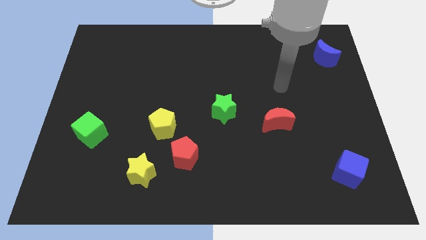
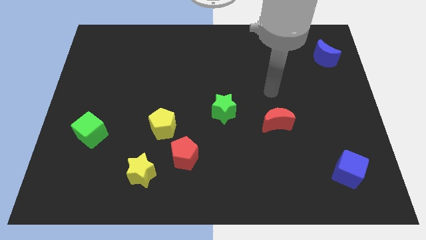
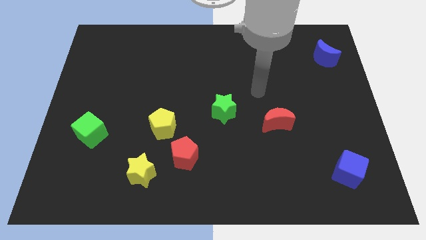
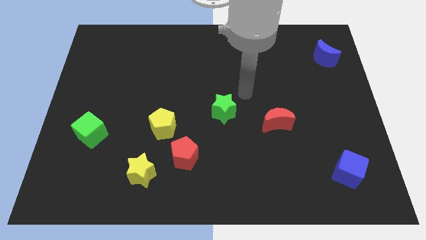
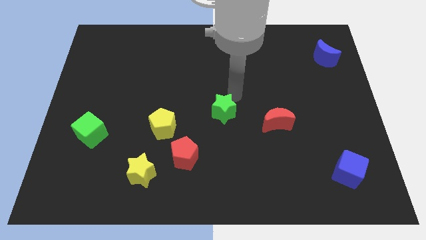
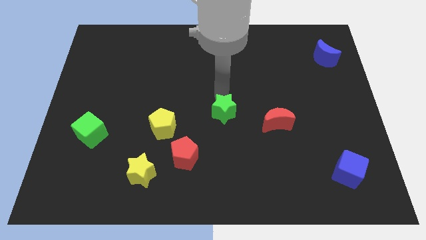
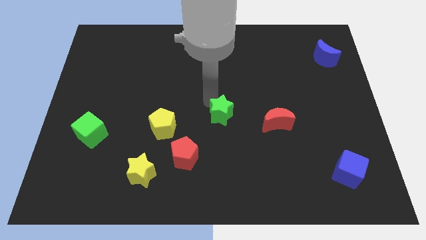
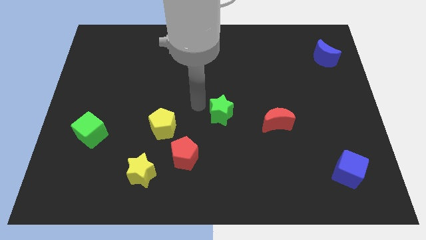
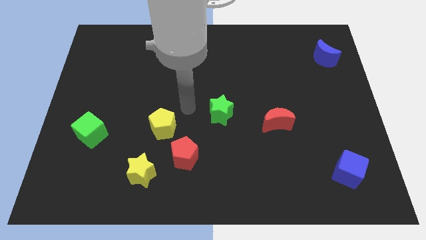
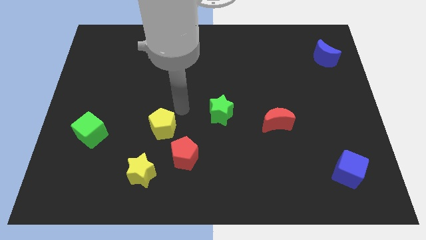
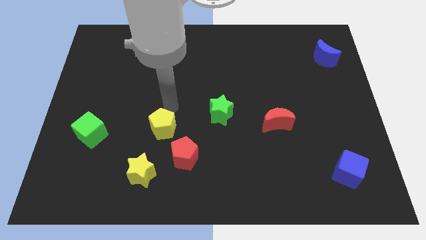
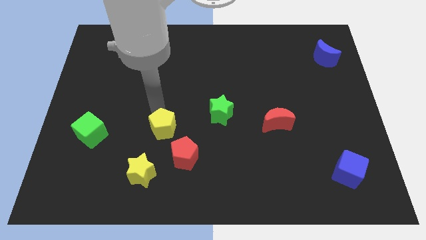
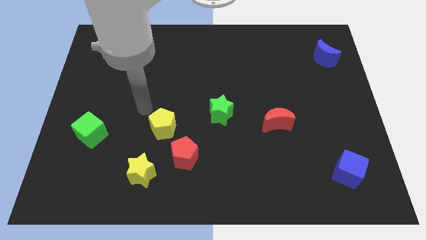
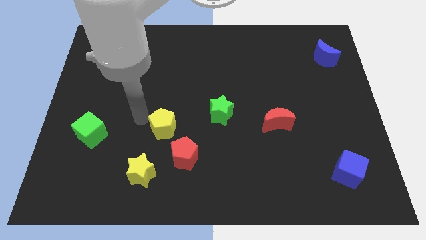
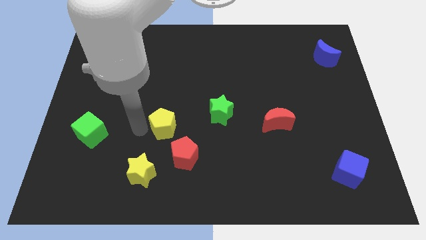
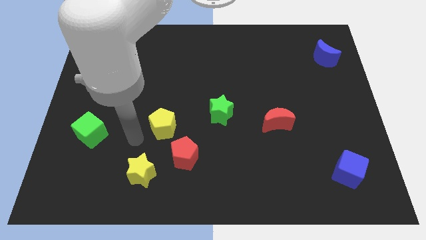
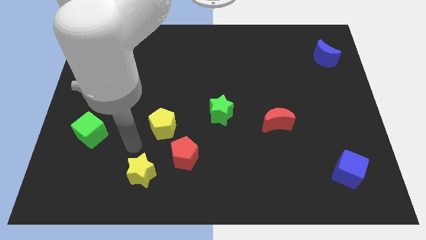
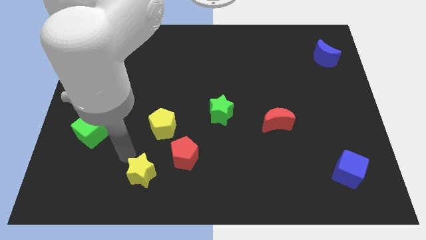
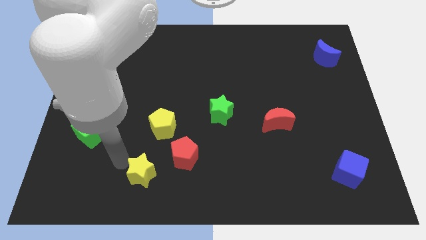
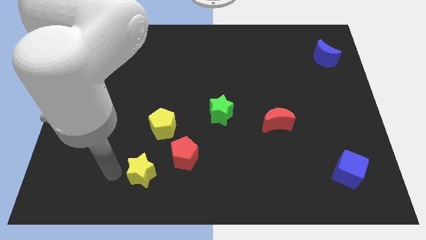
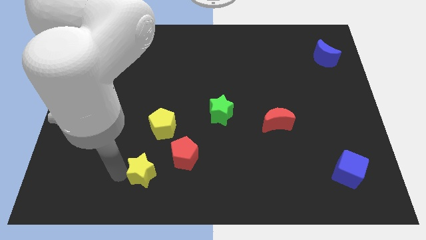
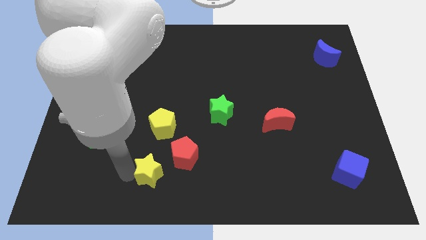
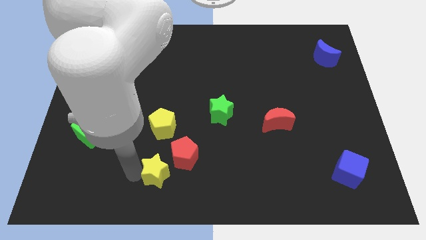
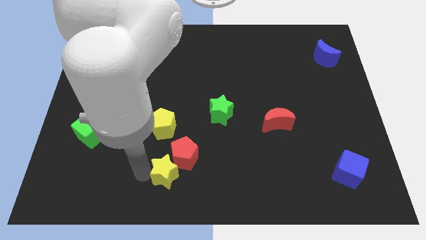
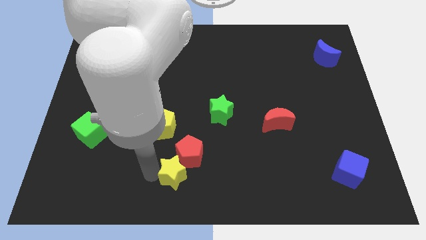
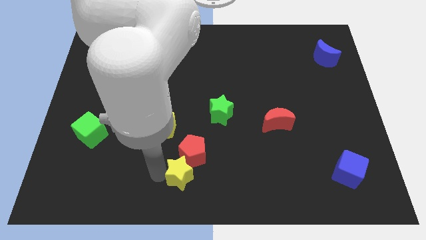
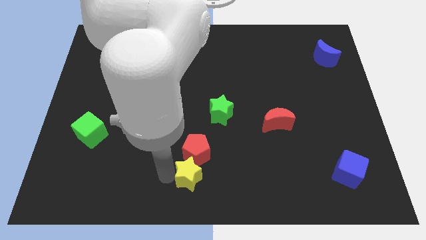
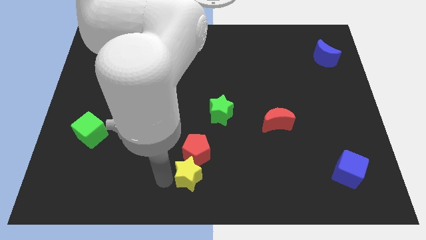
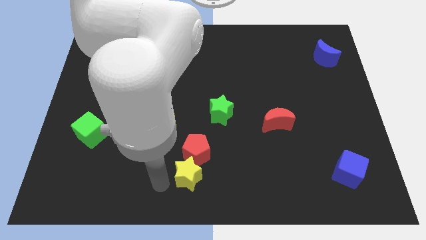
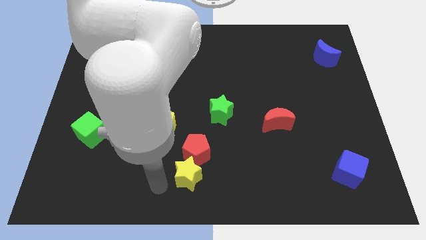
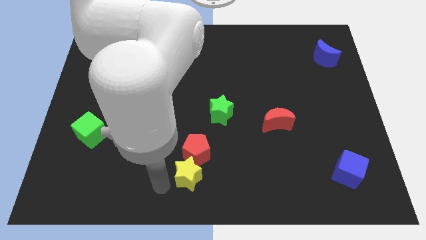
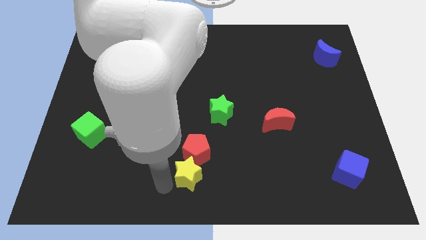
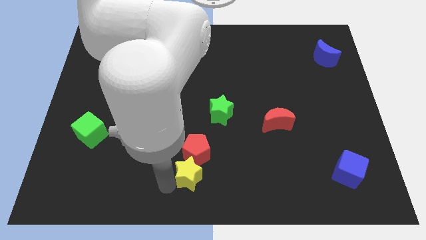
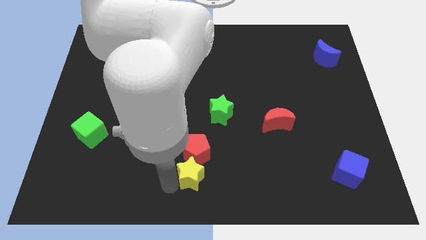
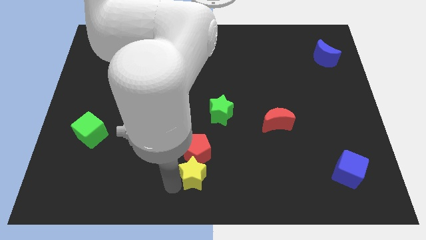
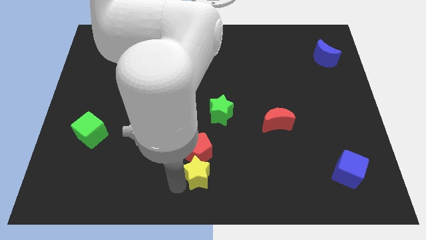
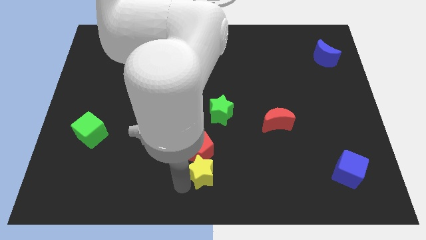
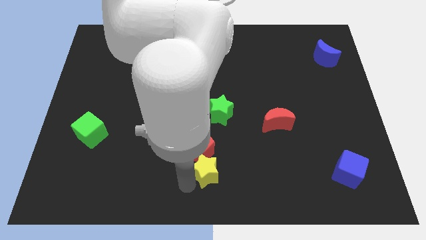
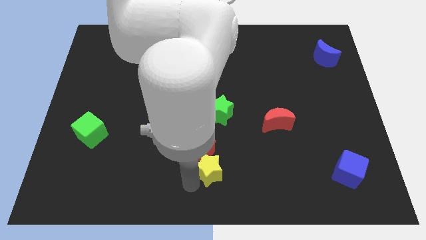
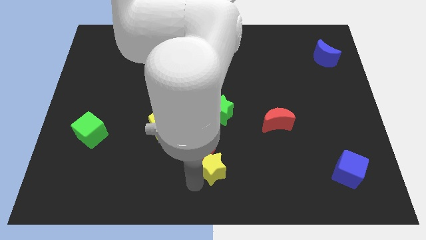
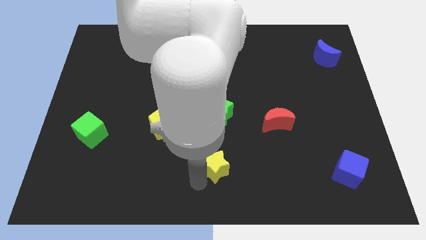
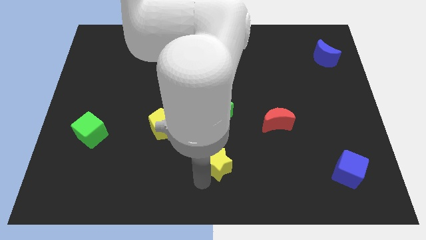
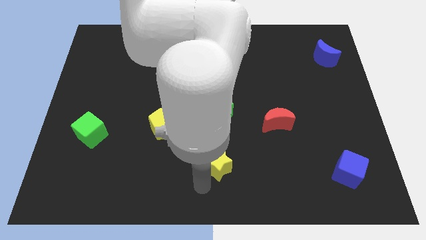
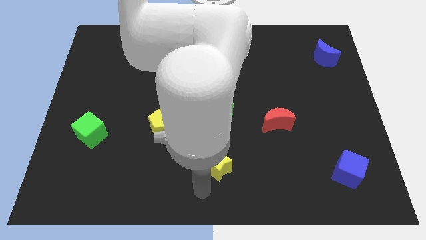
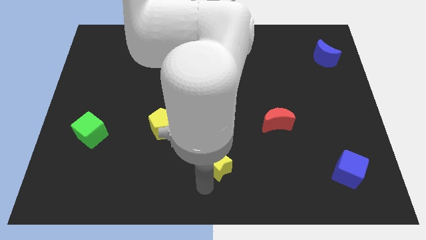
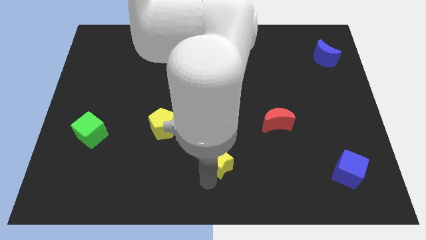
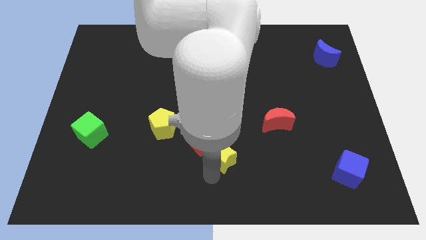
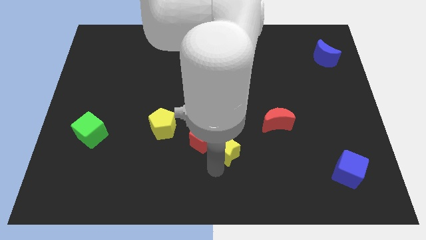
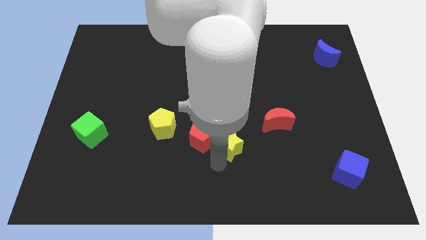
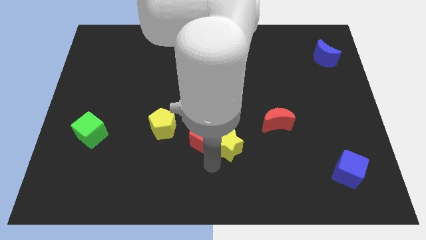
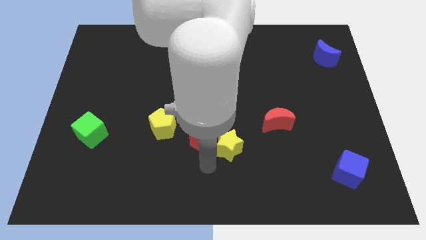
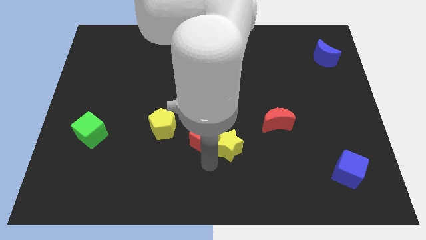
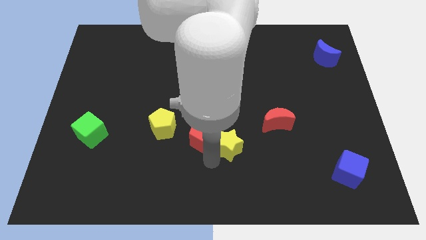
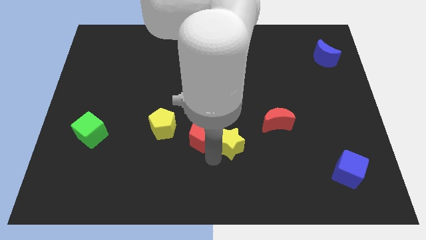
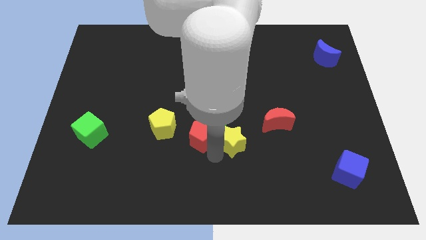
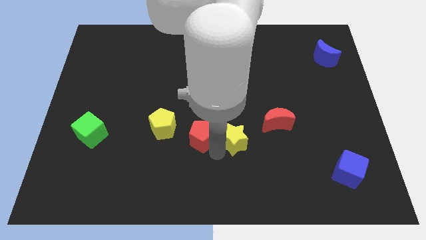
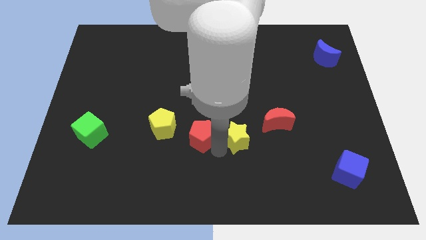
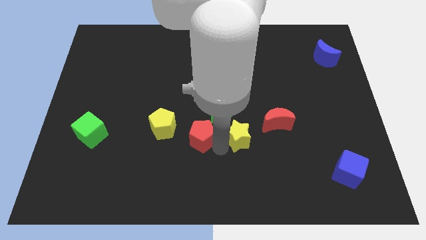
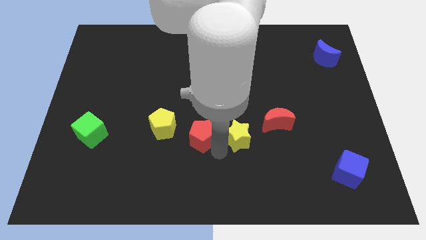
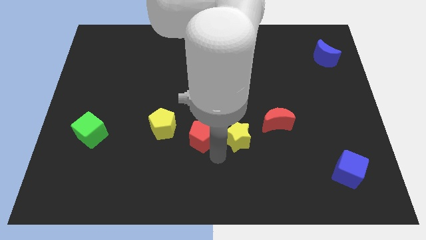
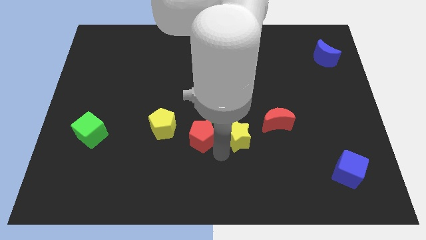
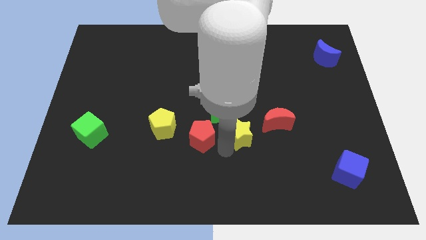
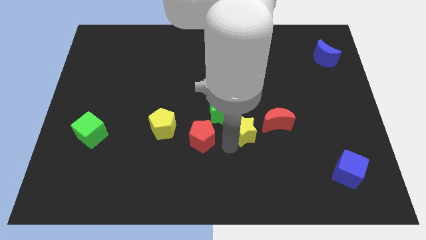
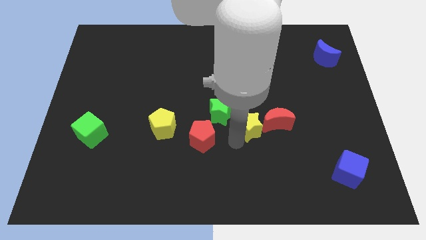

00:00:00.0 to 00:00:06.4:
push the yellow star up and right

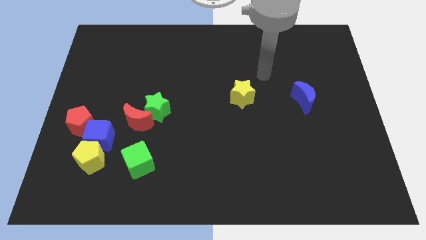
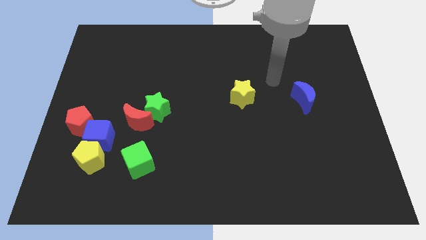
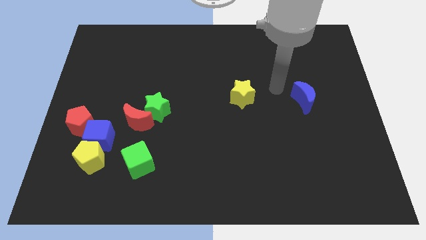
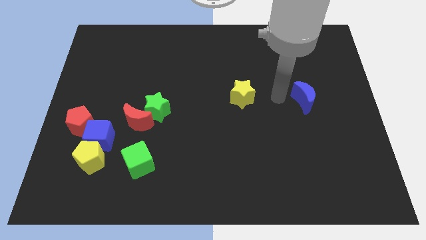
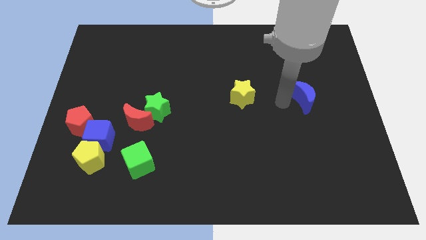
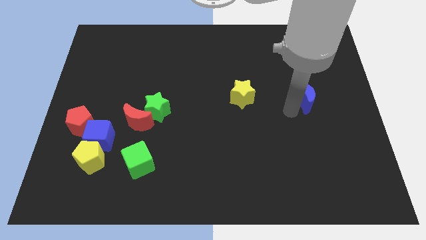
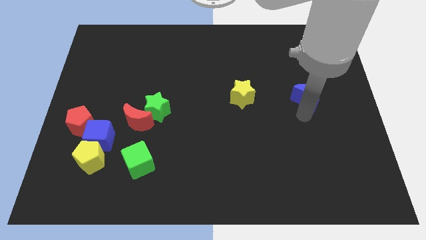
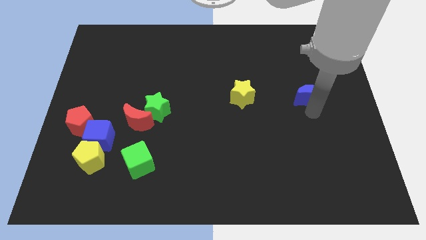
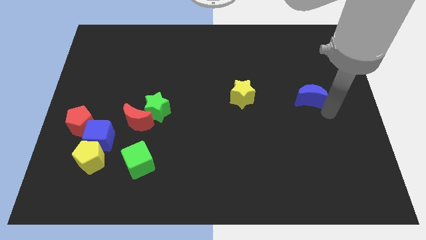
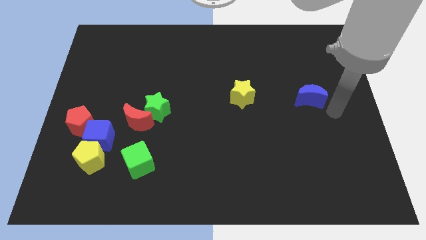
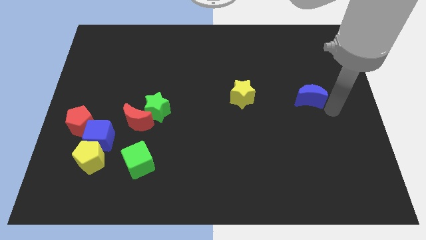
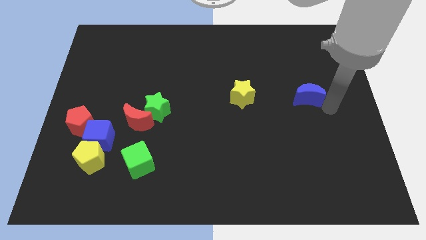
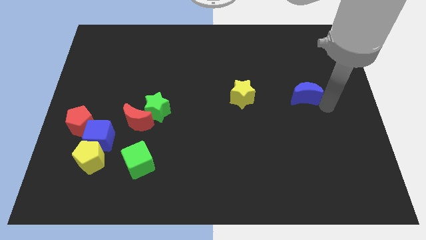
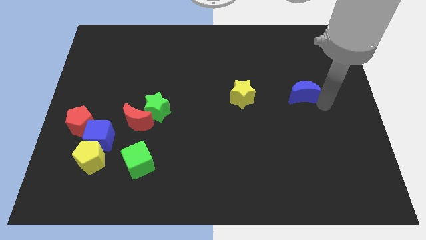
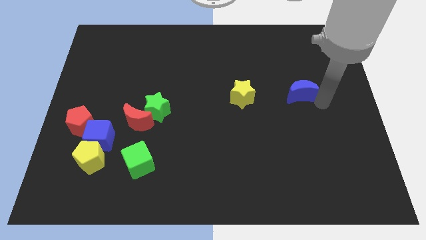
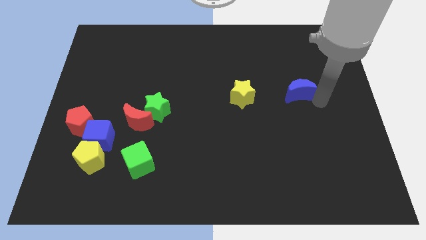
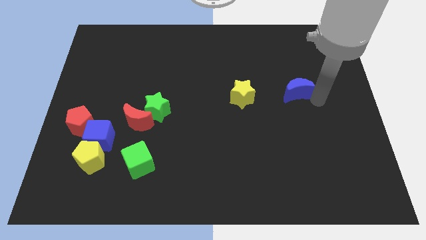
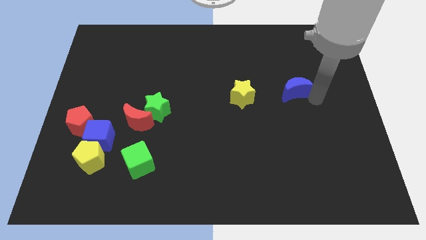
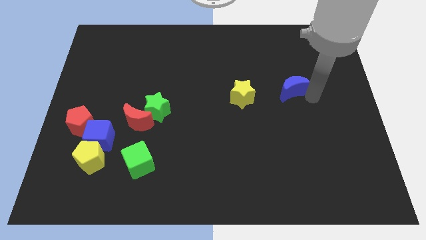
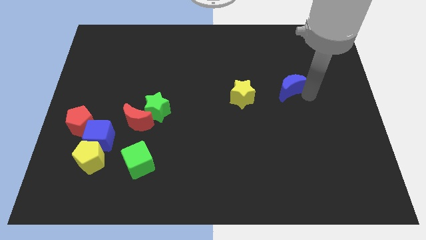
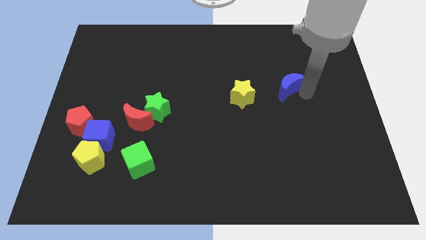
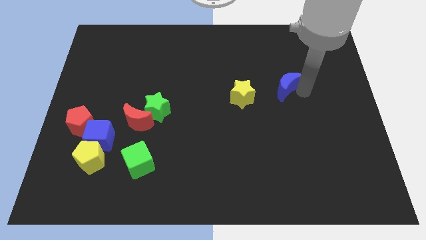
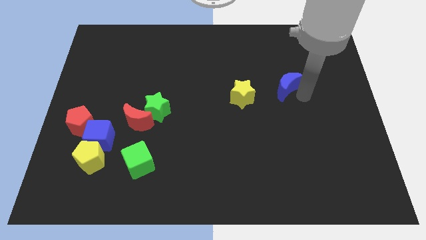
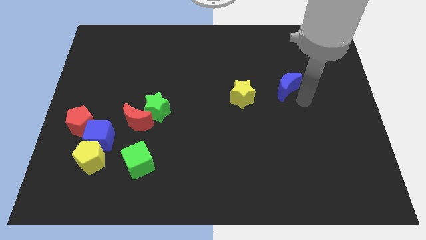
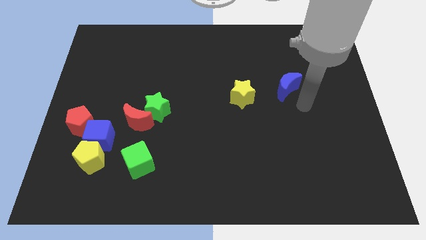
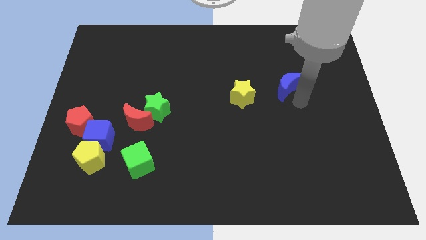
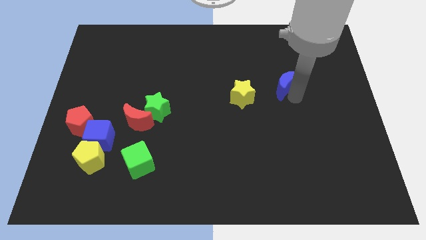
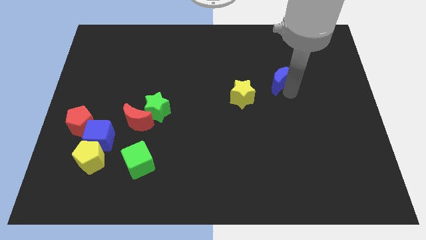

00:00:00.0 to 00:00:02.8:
slide the blue moon upwards and then left a little bit
